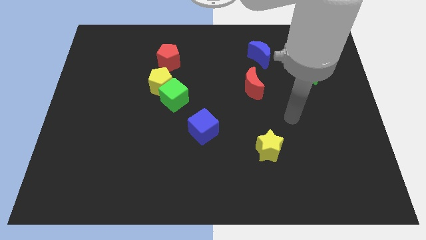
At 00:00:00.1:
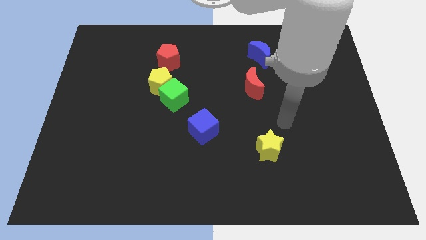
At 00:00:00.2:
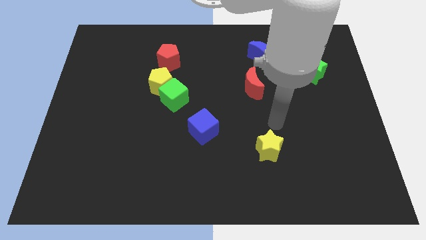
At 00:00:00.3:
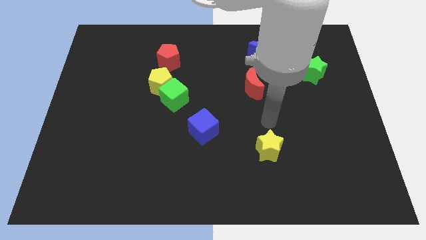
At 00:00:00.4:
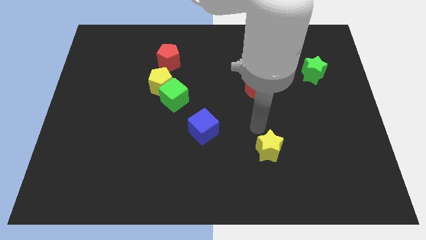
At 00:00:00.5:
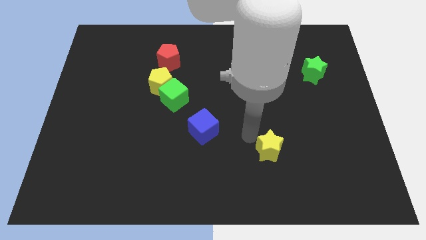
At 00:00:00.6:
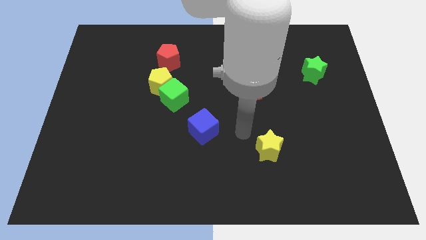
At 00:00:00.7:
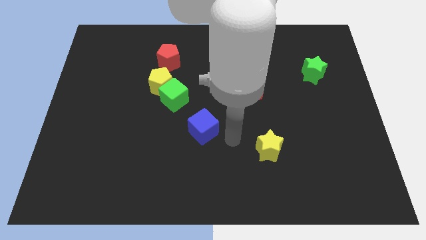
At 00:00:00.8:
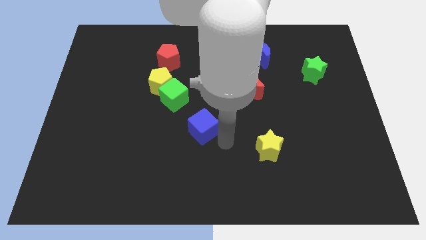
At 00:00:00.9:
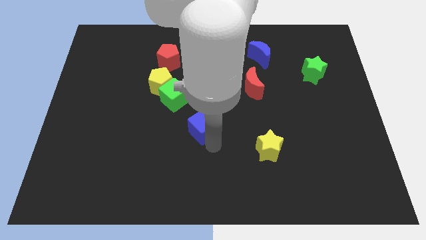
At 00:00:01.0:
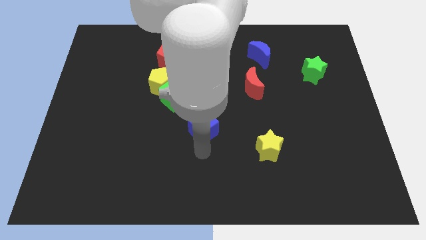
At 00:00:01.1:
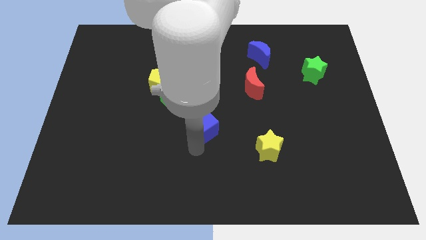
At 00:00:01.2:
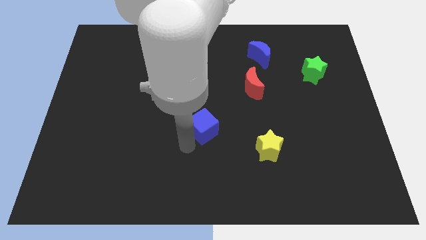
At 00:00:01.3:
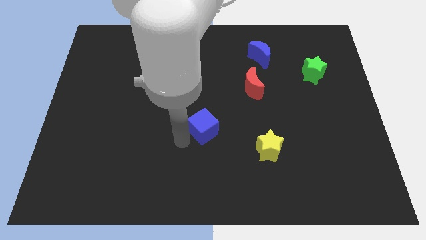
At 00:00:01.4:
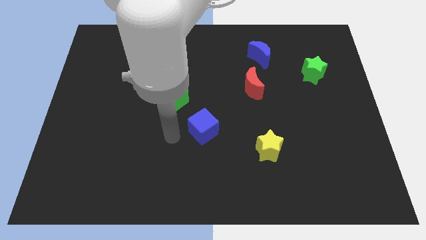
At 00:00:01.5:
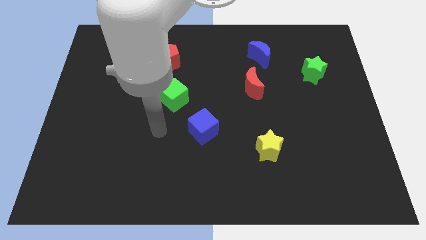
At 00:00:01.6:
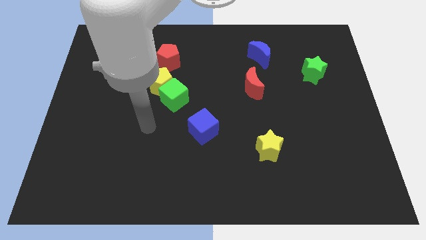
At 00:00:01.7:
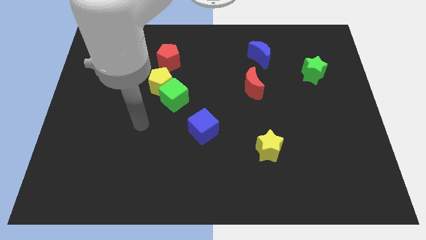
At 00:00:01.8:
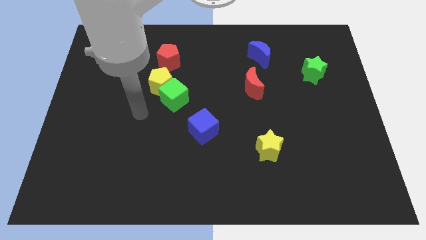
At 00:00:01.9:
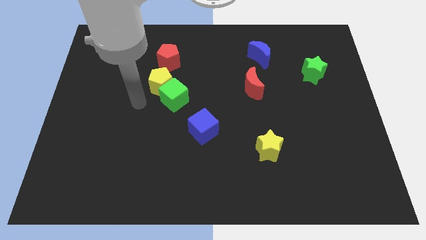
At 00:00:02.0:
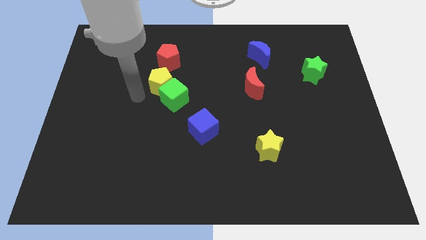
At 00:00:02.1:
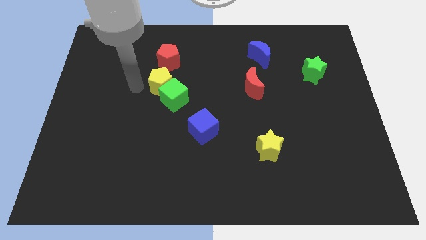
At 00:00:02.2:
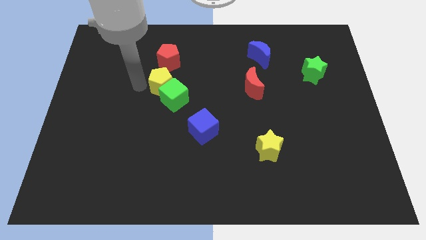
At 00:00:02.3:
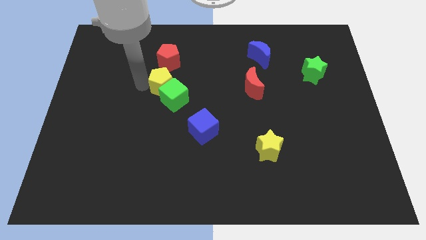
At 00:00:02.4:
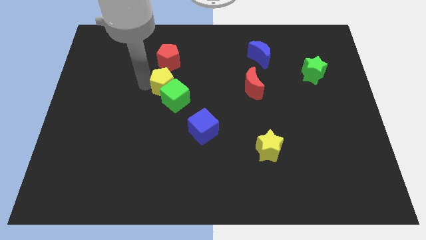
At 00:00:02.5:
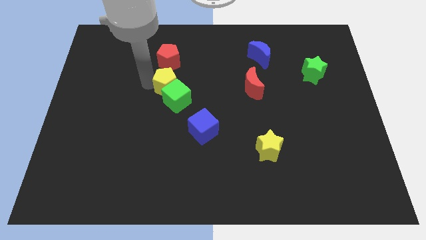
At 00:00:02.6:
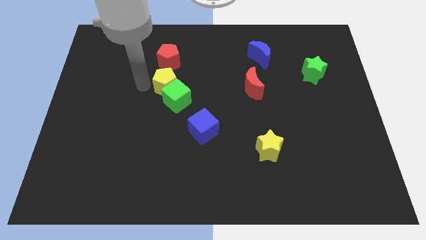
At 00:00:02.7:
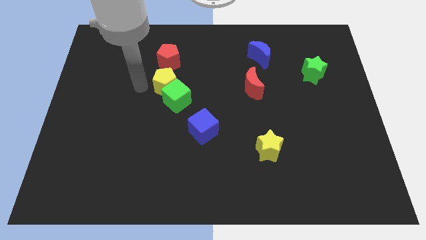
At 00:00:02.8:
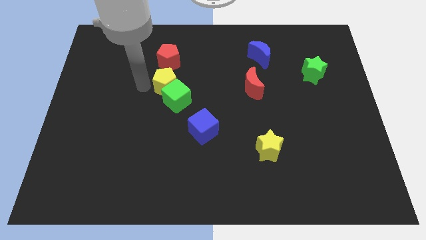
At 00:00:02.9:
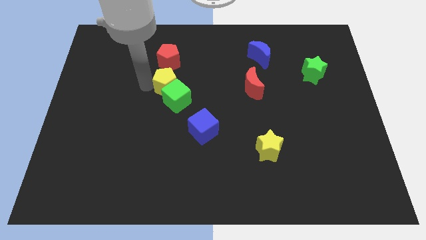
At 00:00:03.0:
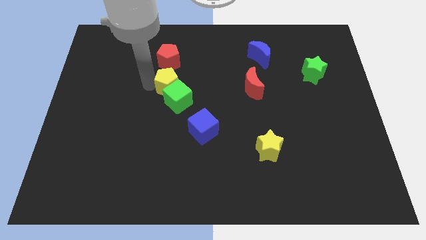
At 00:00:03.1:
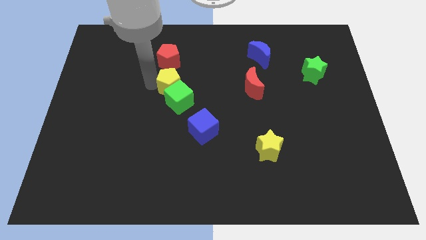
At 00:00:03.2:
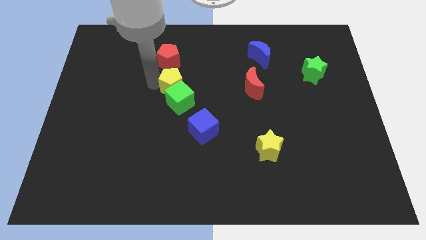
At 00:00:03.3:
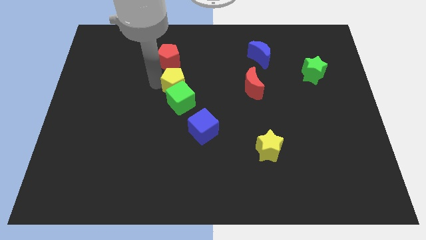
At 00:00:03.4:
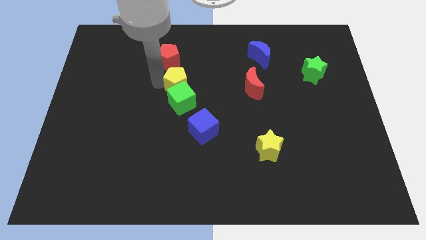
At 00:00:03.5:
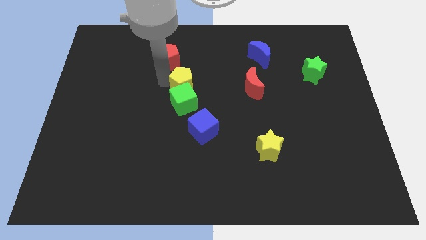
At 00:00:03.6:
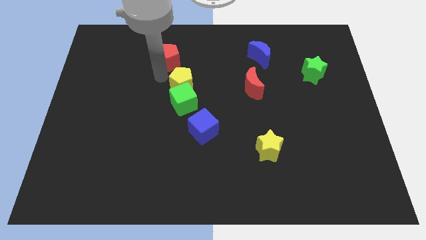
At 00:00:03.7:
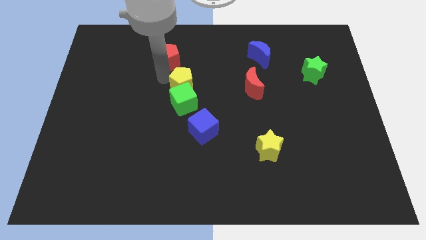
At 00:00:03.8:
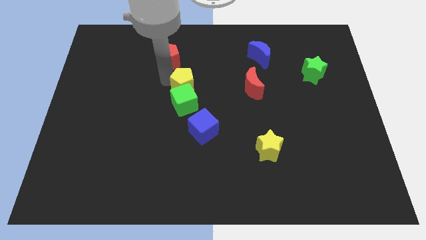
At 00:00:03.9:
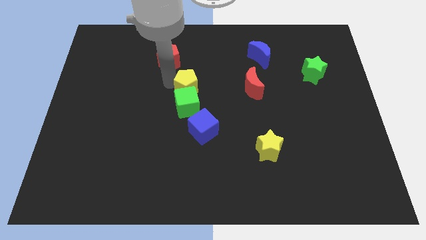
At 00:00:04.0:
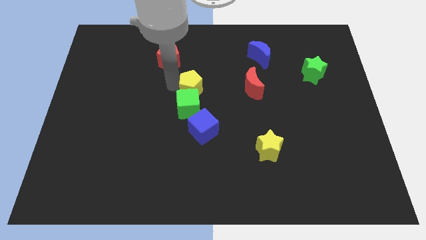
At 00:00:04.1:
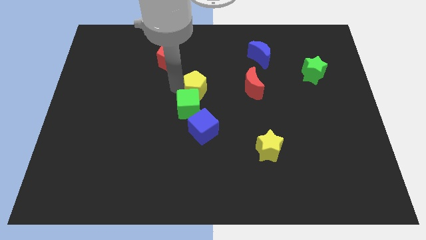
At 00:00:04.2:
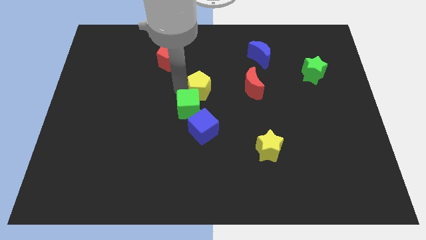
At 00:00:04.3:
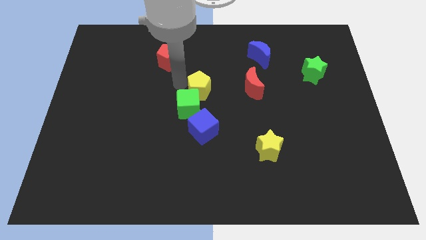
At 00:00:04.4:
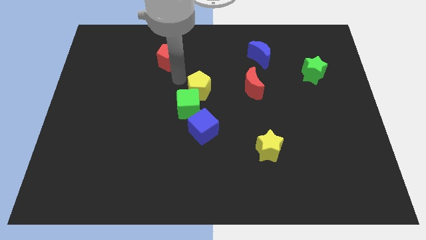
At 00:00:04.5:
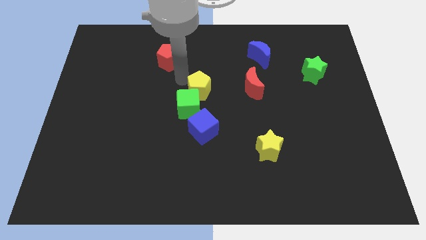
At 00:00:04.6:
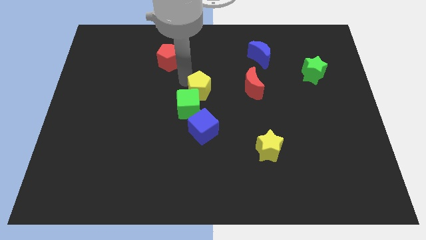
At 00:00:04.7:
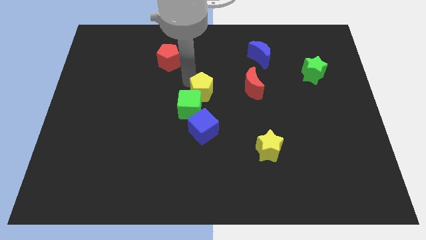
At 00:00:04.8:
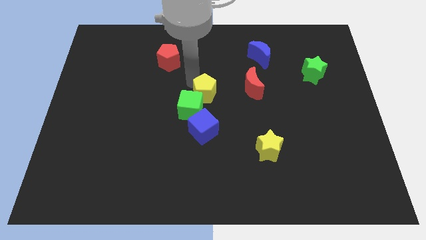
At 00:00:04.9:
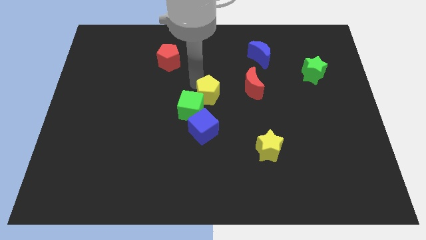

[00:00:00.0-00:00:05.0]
slide the yellow pentagon to the right side of the green cube

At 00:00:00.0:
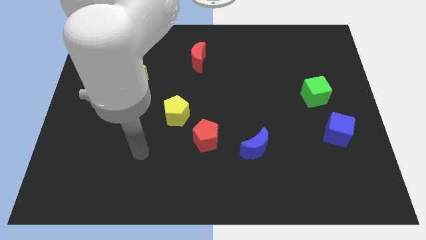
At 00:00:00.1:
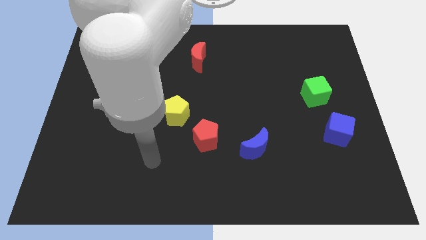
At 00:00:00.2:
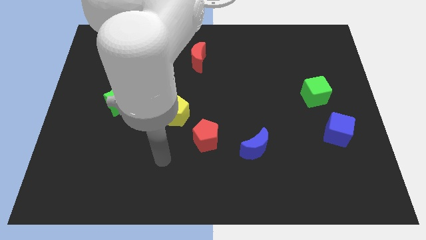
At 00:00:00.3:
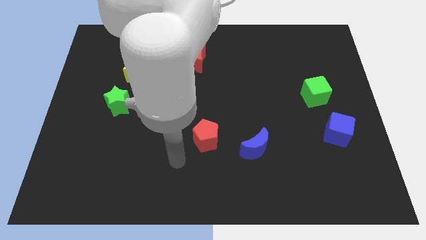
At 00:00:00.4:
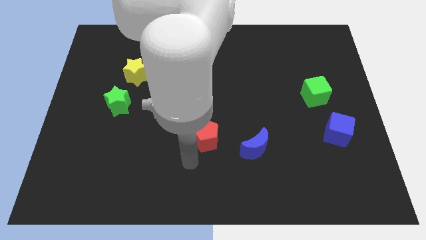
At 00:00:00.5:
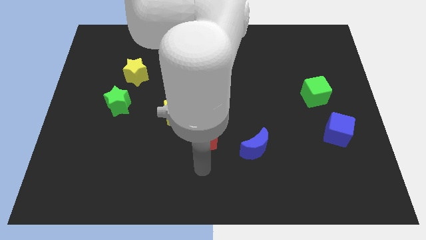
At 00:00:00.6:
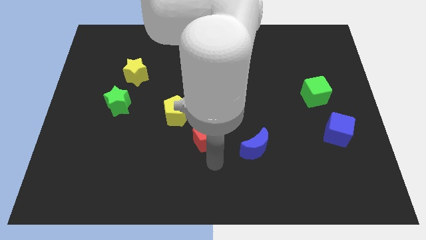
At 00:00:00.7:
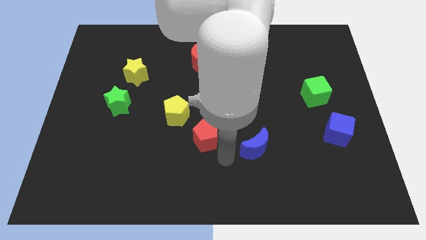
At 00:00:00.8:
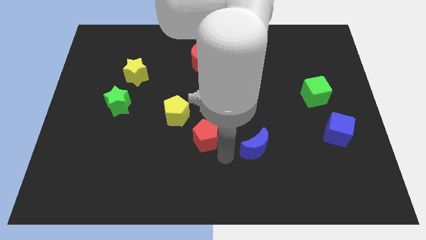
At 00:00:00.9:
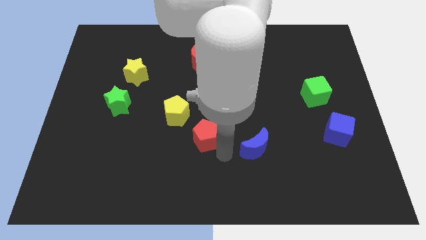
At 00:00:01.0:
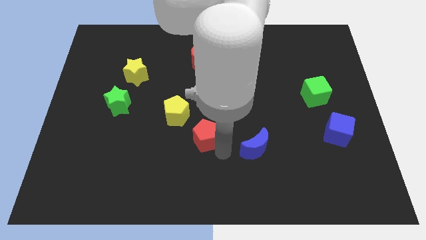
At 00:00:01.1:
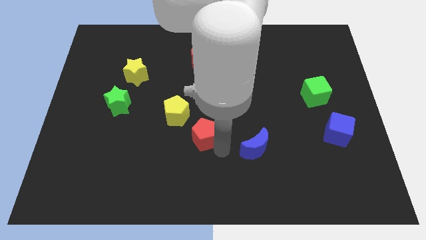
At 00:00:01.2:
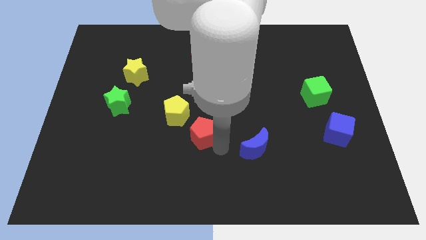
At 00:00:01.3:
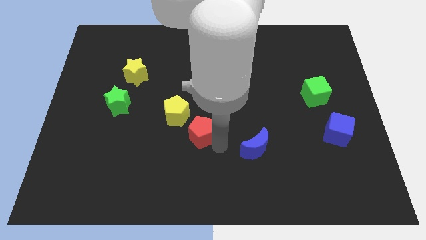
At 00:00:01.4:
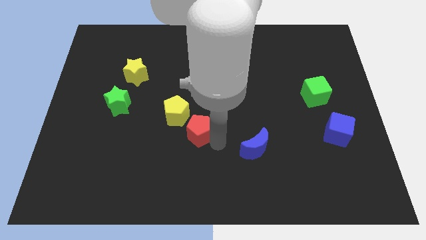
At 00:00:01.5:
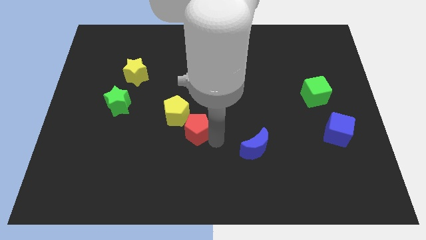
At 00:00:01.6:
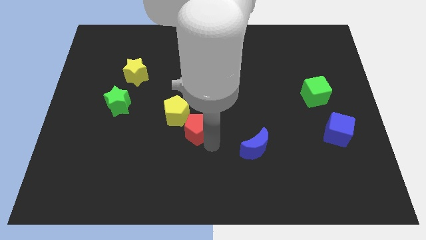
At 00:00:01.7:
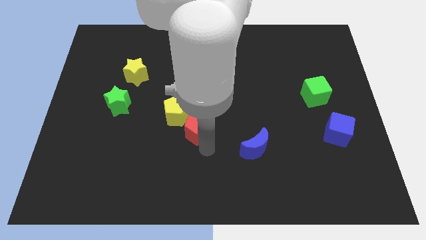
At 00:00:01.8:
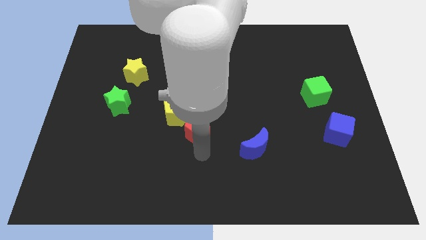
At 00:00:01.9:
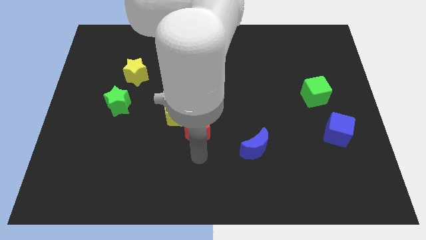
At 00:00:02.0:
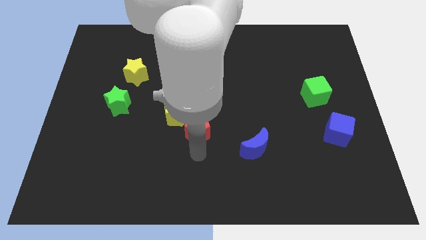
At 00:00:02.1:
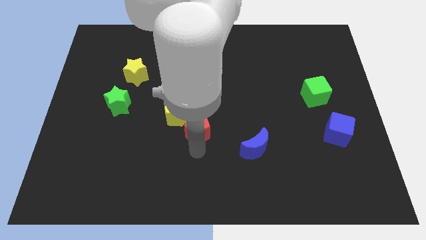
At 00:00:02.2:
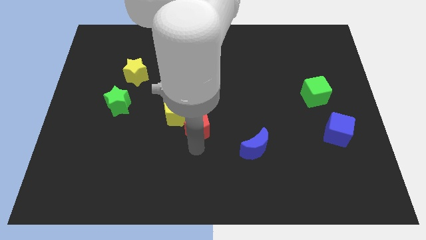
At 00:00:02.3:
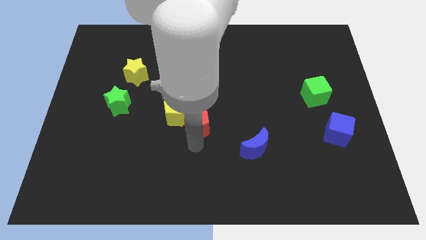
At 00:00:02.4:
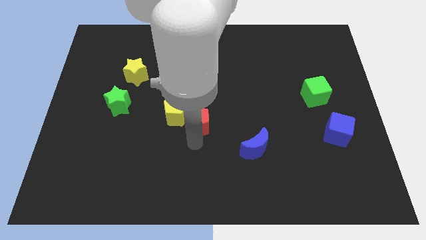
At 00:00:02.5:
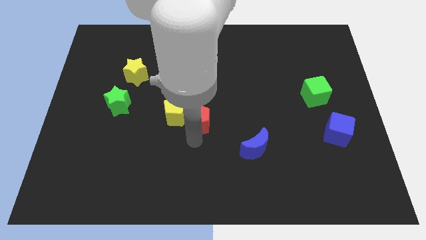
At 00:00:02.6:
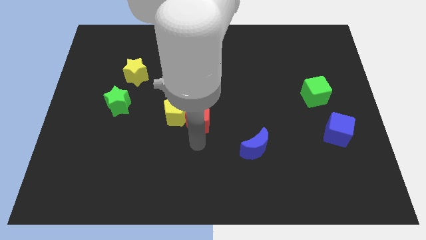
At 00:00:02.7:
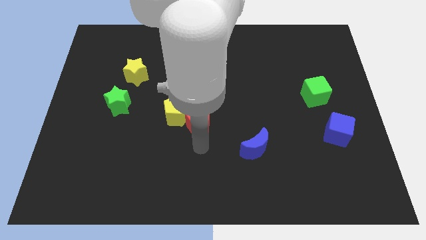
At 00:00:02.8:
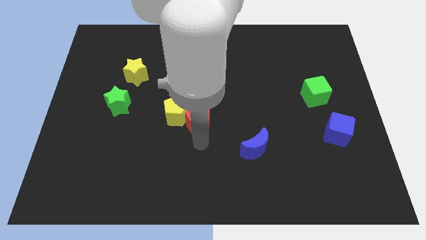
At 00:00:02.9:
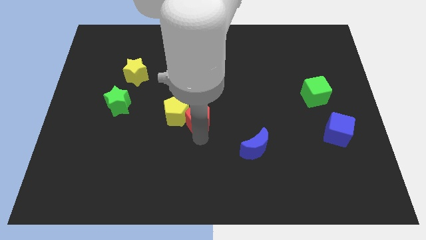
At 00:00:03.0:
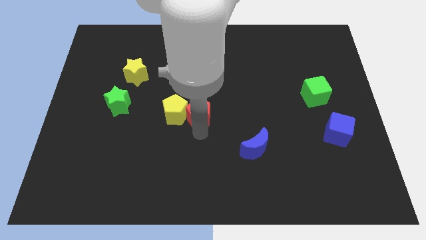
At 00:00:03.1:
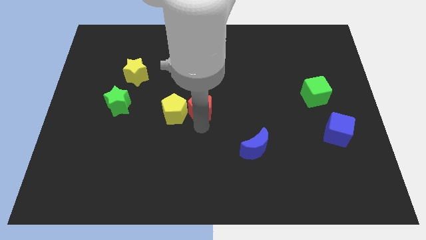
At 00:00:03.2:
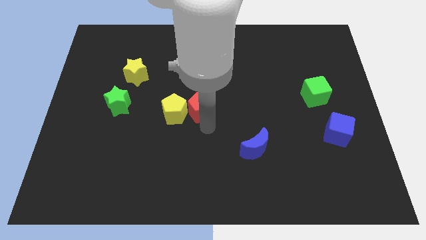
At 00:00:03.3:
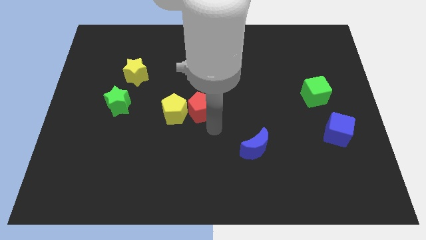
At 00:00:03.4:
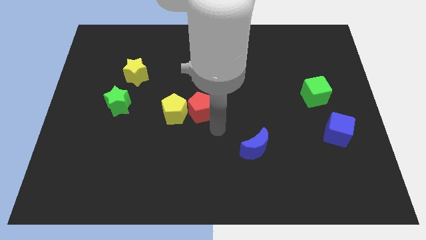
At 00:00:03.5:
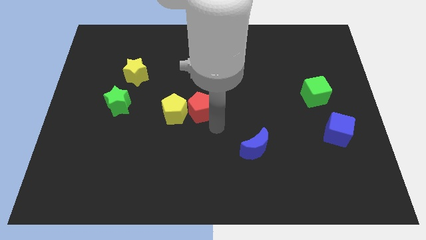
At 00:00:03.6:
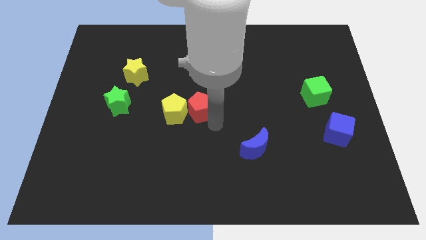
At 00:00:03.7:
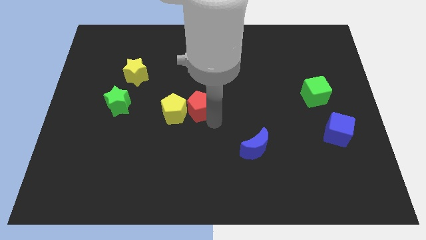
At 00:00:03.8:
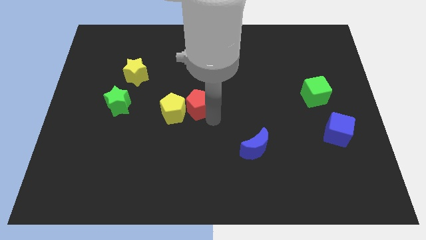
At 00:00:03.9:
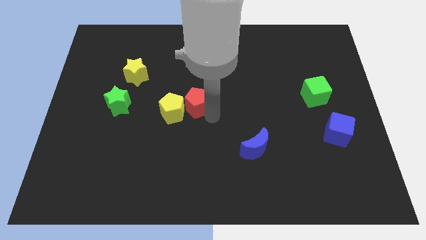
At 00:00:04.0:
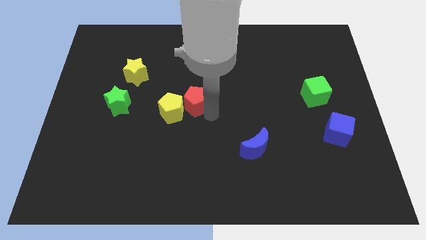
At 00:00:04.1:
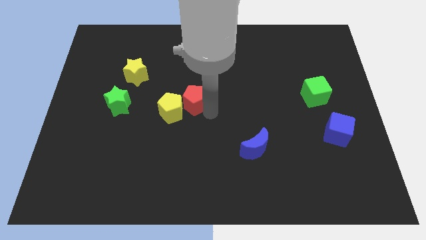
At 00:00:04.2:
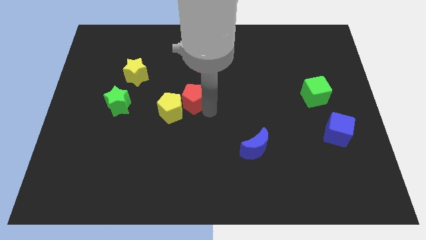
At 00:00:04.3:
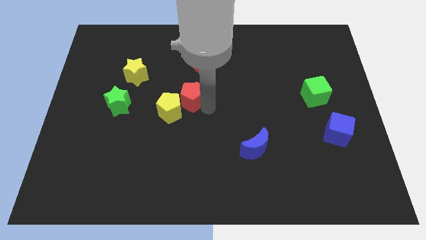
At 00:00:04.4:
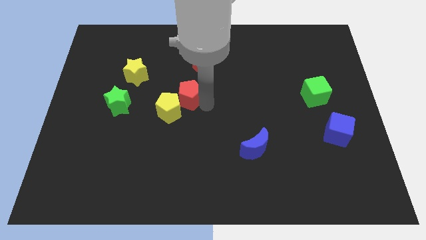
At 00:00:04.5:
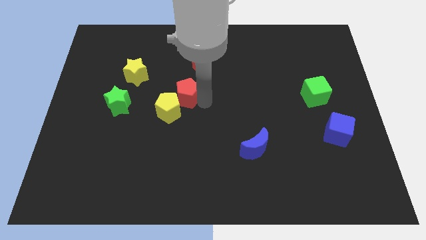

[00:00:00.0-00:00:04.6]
put the red pentagon above the yellow pentagon
